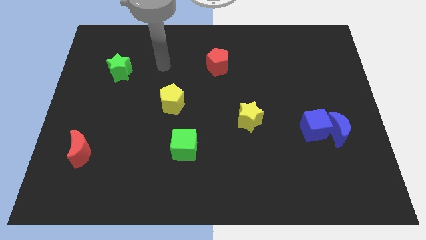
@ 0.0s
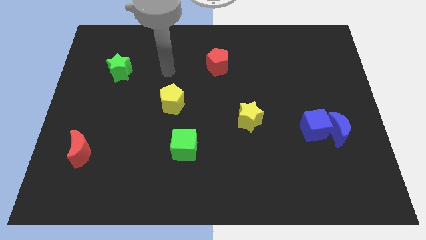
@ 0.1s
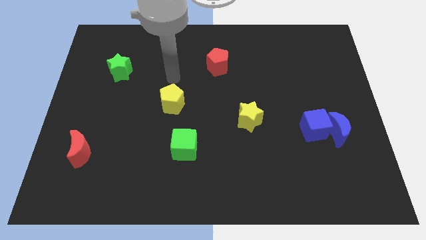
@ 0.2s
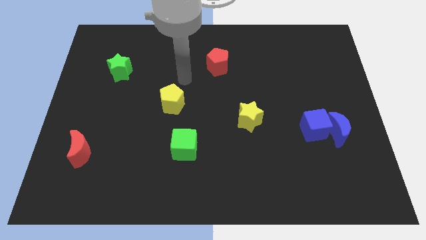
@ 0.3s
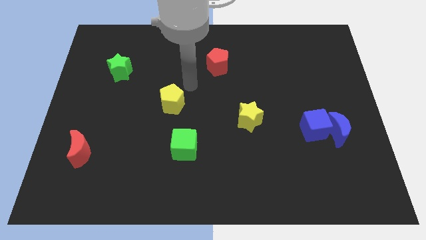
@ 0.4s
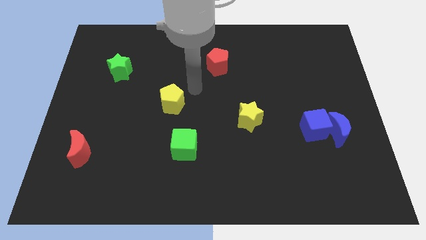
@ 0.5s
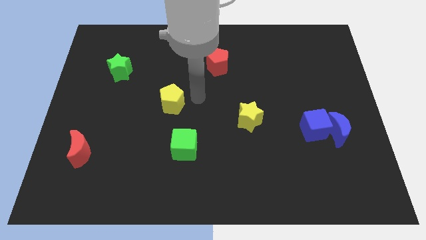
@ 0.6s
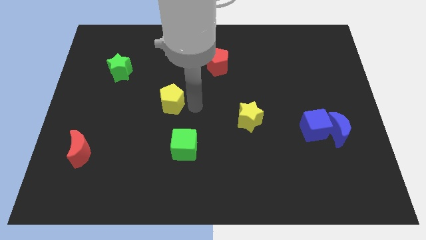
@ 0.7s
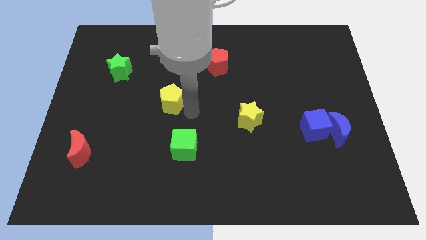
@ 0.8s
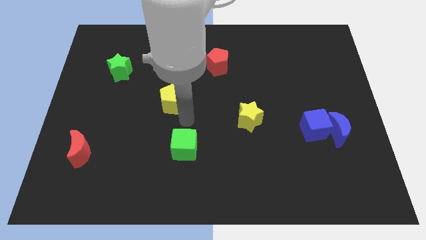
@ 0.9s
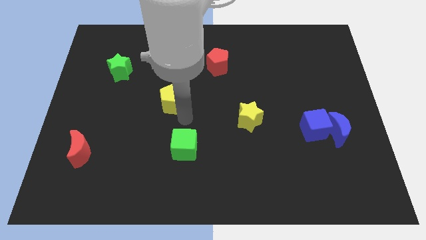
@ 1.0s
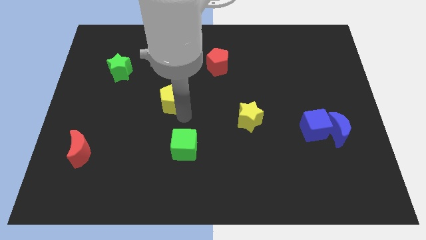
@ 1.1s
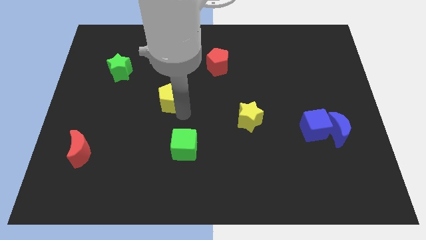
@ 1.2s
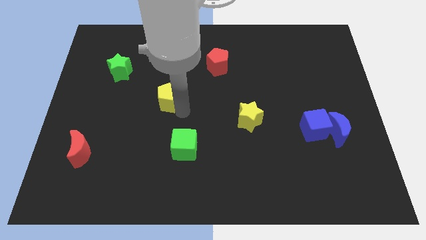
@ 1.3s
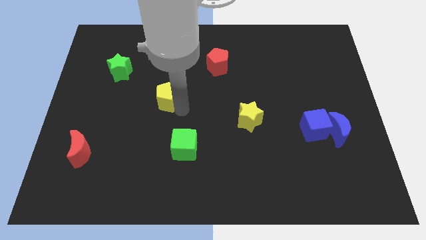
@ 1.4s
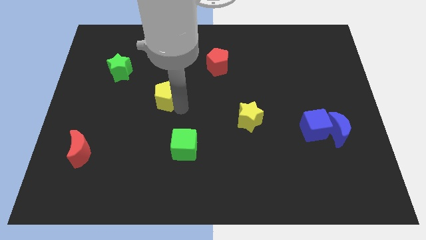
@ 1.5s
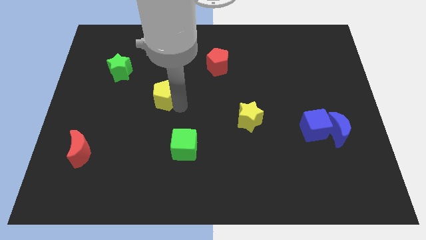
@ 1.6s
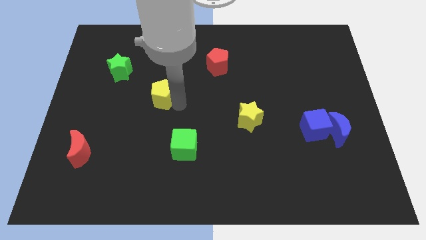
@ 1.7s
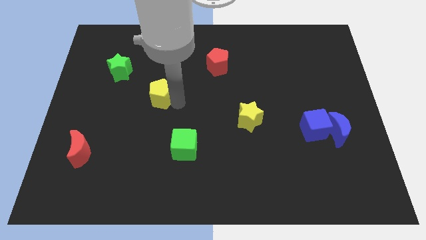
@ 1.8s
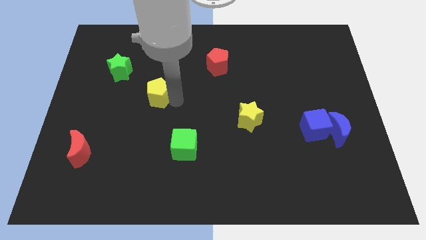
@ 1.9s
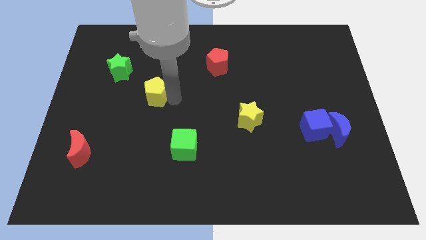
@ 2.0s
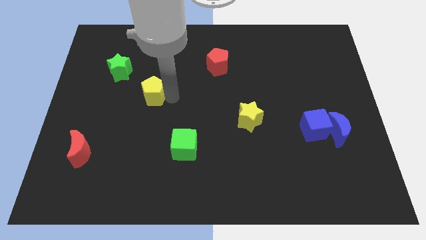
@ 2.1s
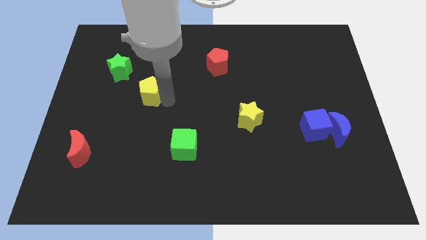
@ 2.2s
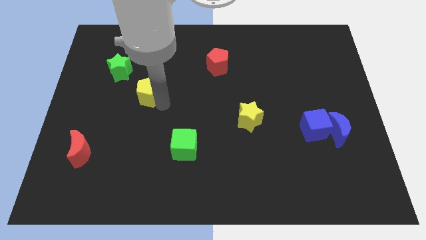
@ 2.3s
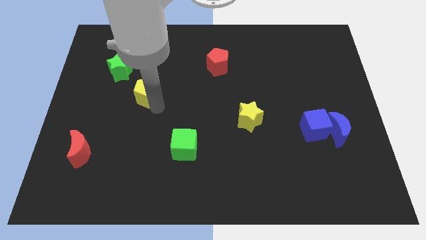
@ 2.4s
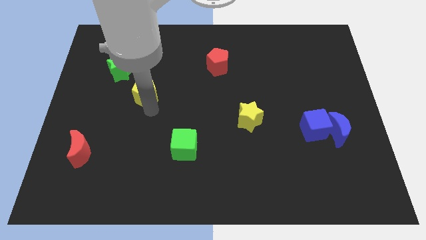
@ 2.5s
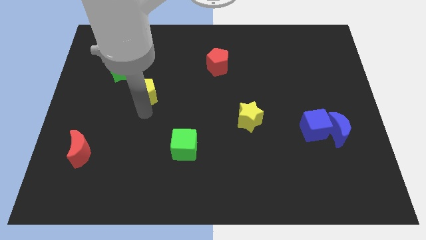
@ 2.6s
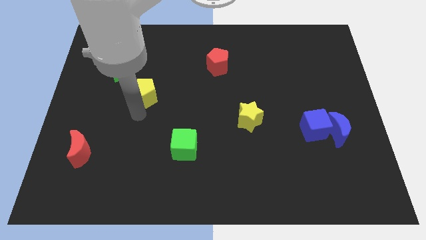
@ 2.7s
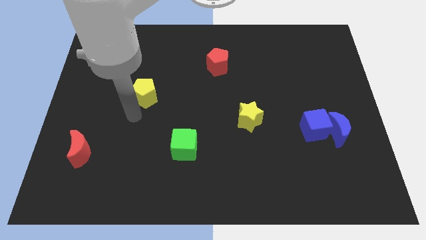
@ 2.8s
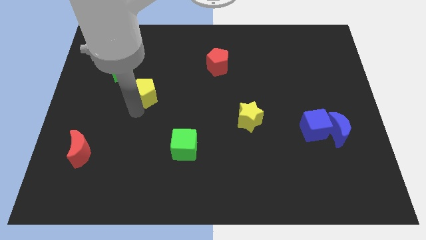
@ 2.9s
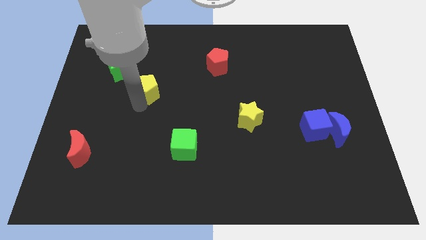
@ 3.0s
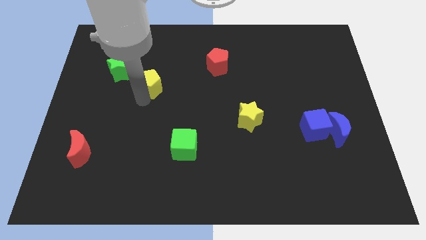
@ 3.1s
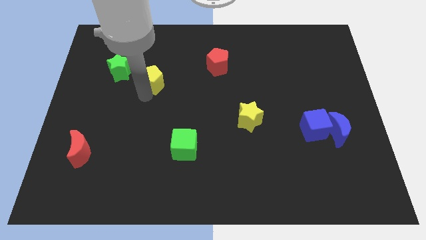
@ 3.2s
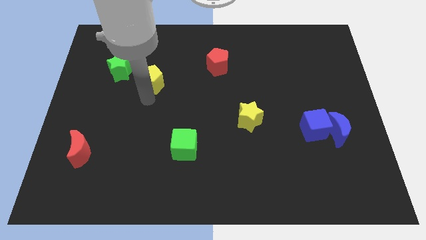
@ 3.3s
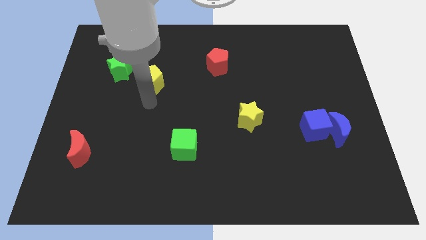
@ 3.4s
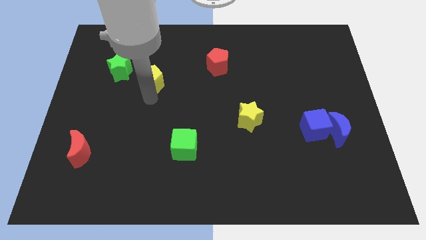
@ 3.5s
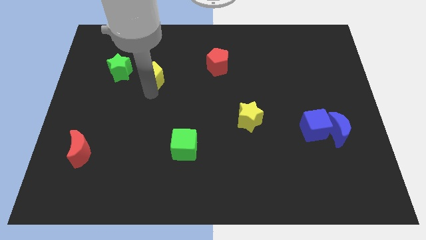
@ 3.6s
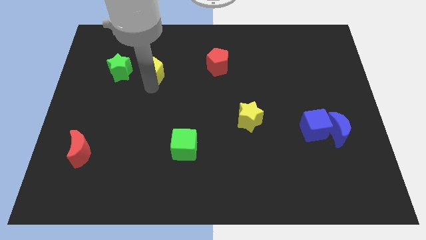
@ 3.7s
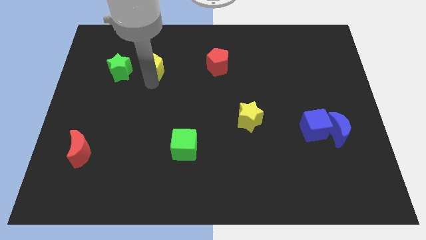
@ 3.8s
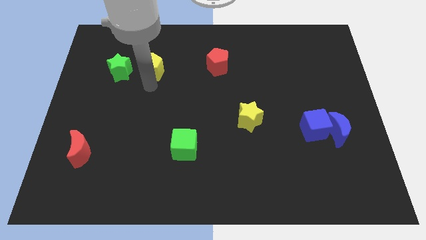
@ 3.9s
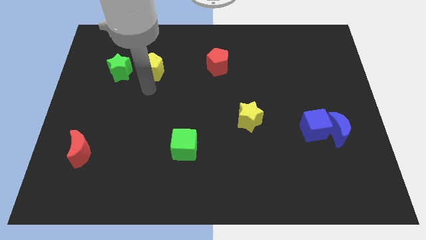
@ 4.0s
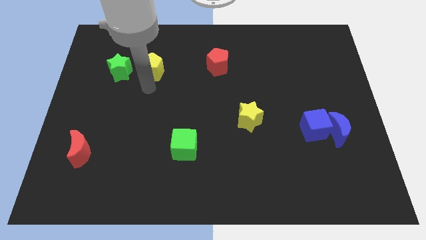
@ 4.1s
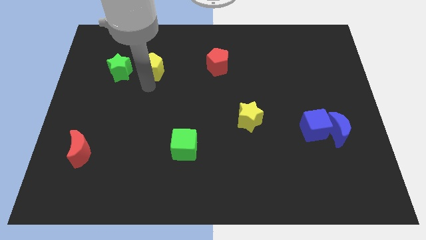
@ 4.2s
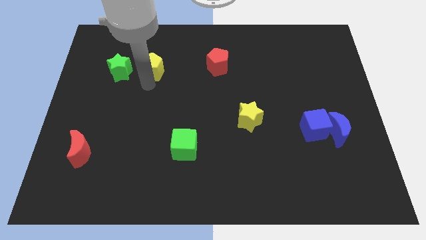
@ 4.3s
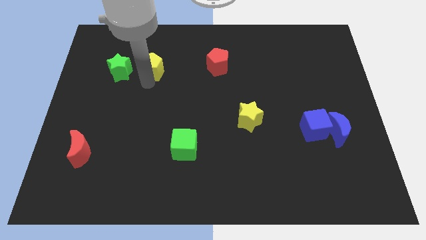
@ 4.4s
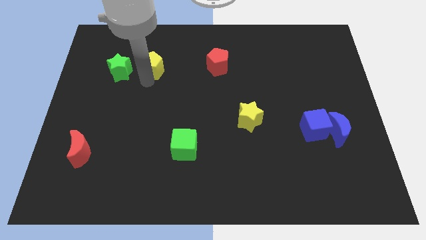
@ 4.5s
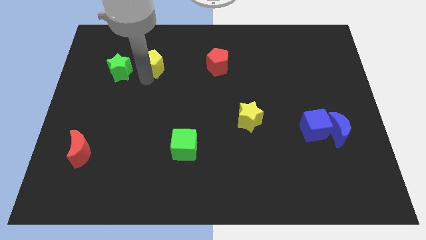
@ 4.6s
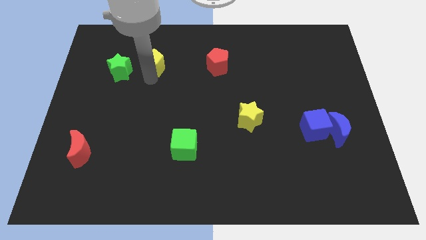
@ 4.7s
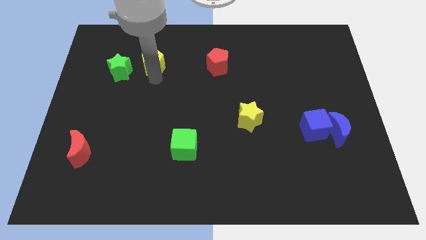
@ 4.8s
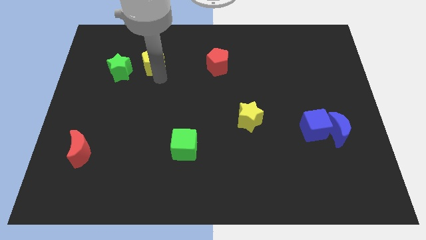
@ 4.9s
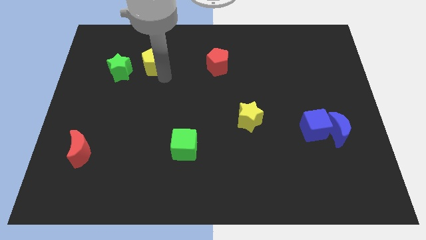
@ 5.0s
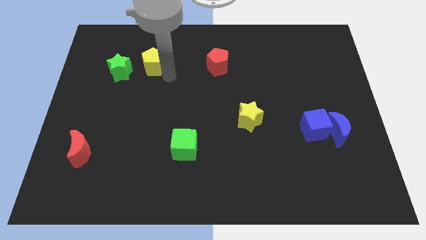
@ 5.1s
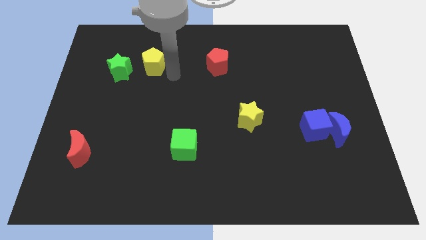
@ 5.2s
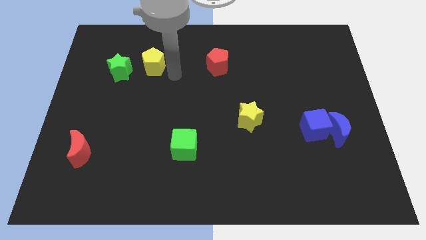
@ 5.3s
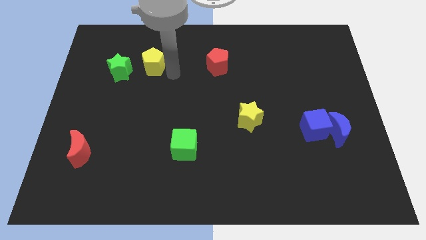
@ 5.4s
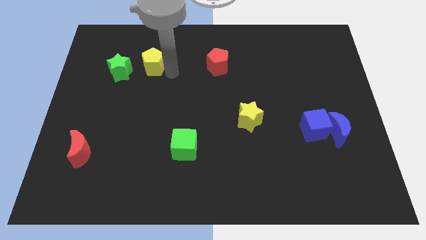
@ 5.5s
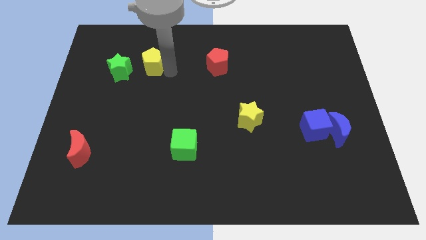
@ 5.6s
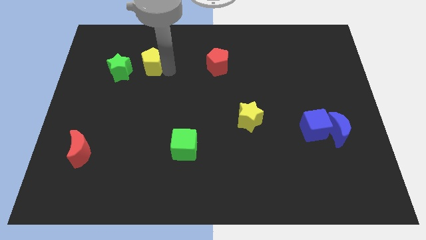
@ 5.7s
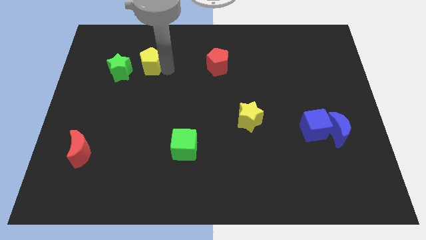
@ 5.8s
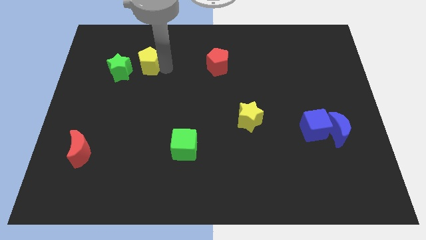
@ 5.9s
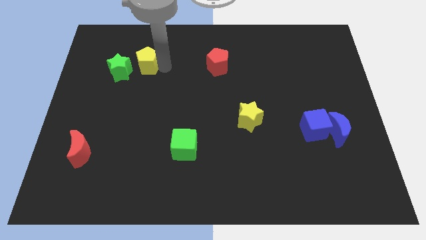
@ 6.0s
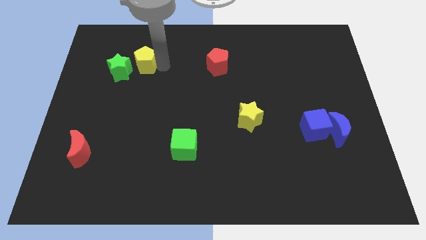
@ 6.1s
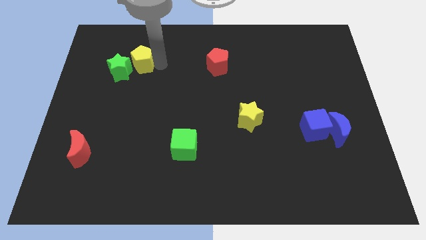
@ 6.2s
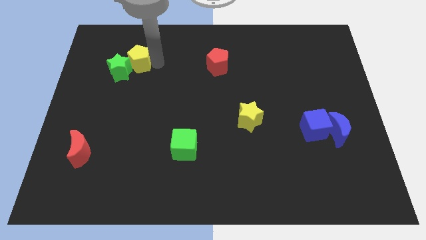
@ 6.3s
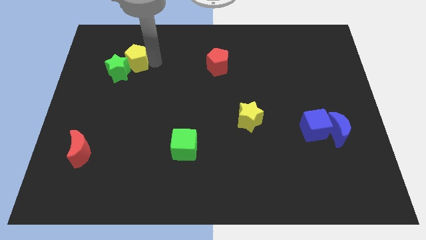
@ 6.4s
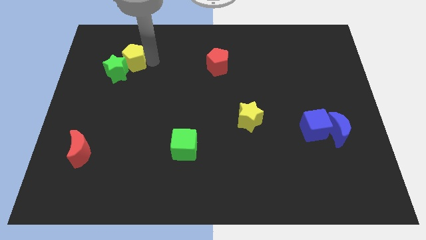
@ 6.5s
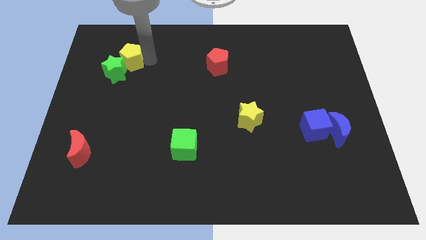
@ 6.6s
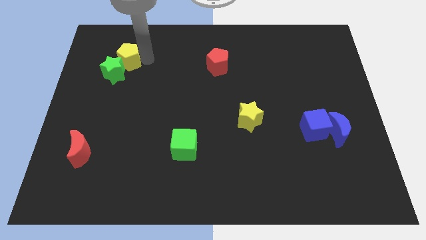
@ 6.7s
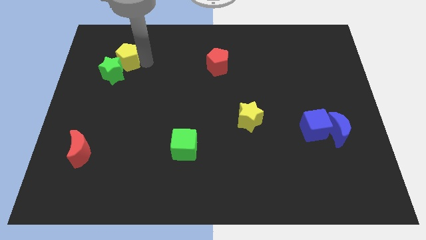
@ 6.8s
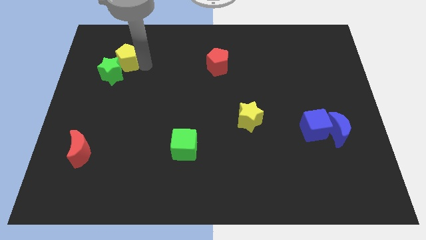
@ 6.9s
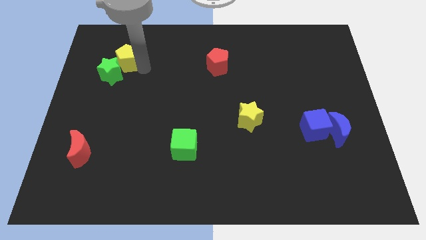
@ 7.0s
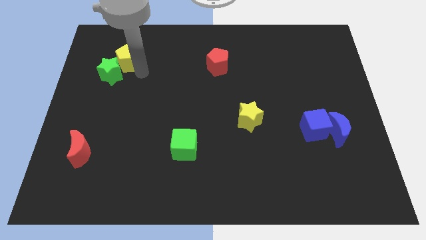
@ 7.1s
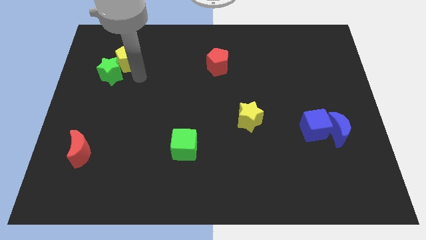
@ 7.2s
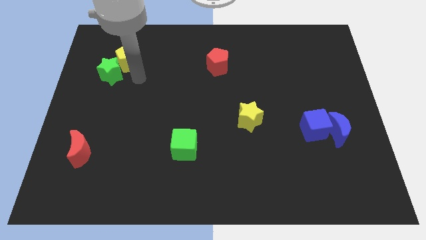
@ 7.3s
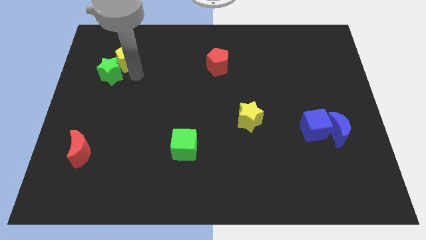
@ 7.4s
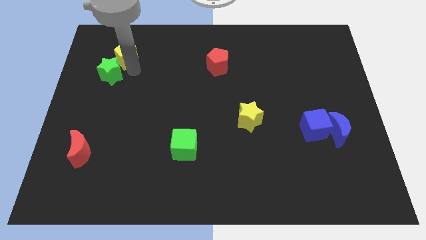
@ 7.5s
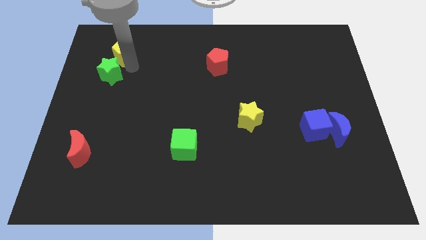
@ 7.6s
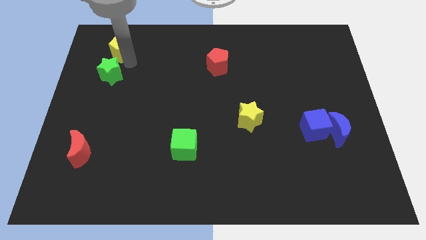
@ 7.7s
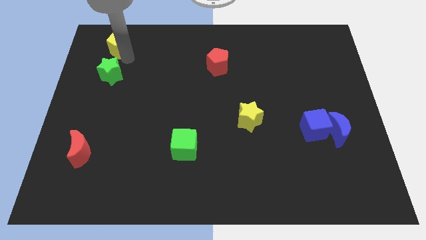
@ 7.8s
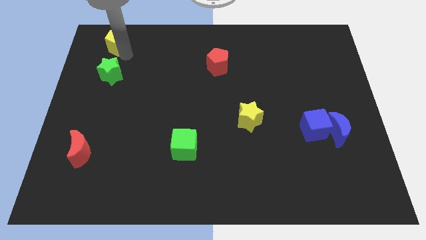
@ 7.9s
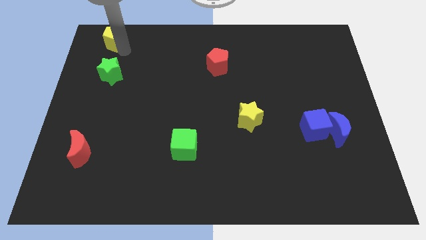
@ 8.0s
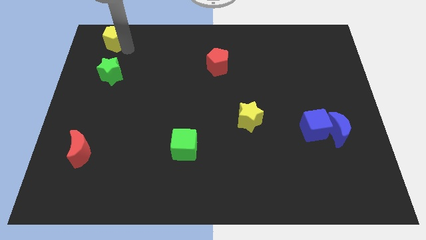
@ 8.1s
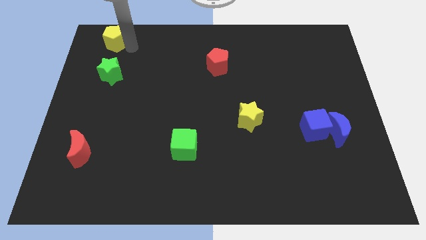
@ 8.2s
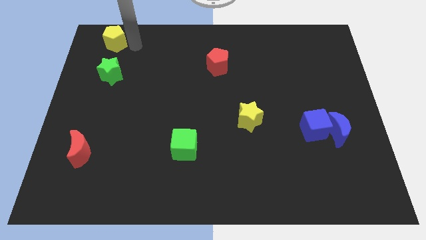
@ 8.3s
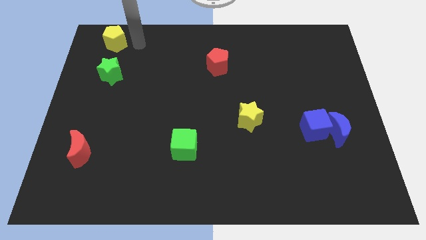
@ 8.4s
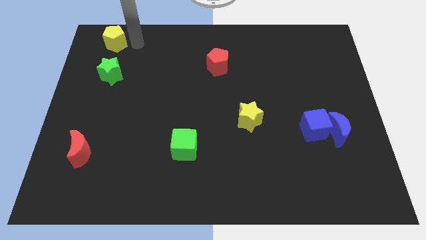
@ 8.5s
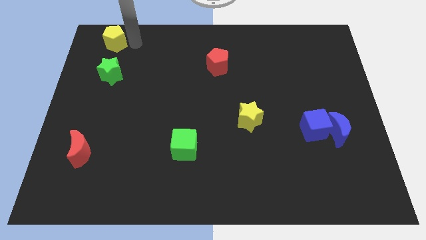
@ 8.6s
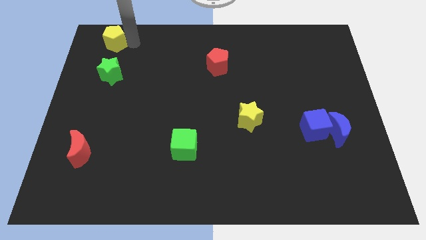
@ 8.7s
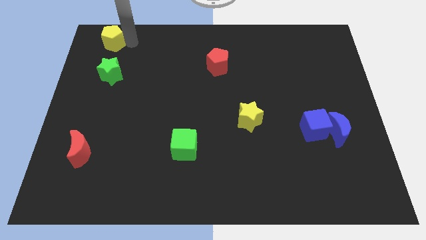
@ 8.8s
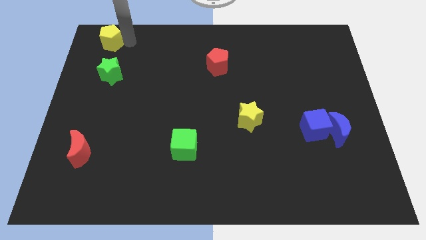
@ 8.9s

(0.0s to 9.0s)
move the yellow pentagon to the top left corner
